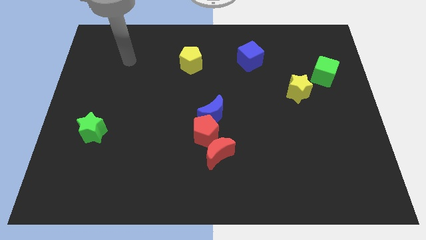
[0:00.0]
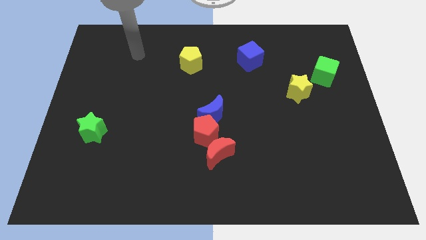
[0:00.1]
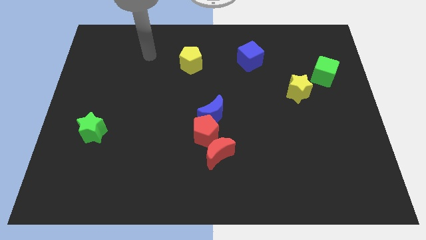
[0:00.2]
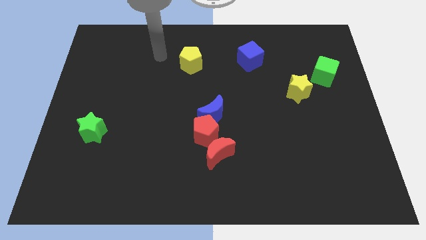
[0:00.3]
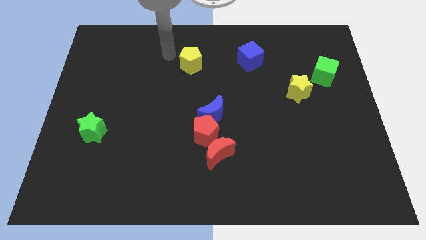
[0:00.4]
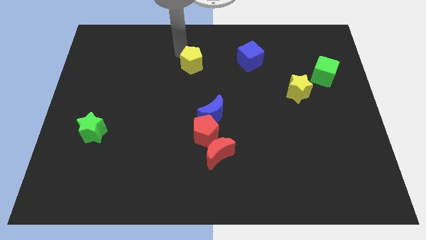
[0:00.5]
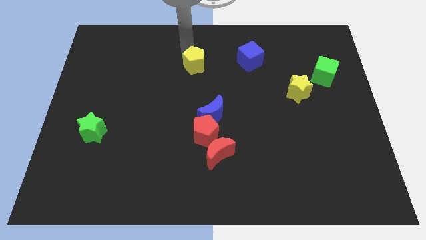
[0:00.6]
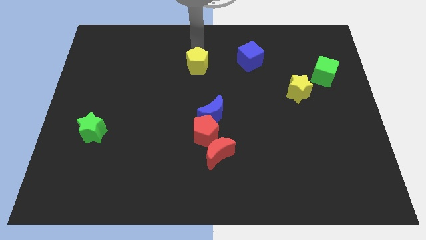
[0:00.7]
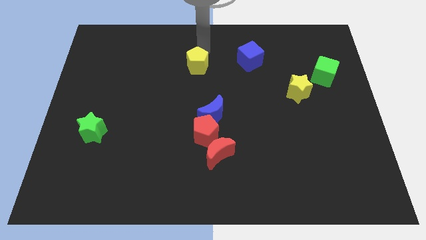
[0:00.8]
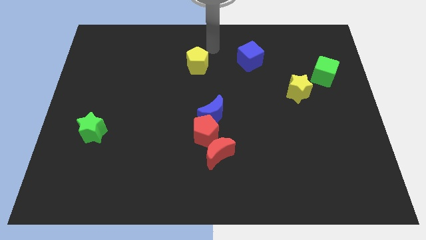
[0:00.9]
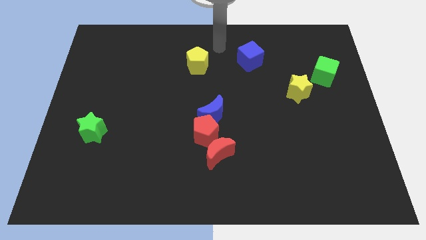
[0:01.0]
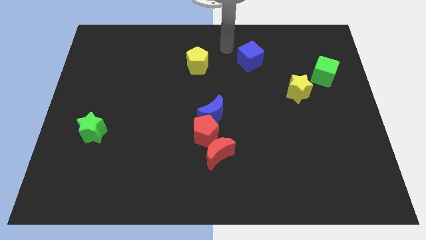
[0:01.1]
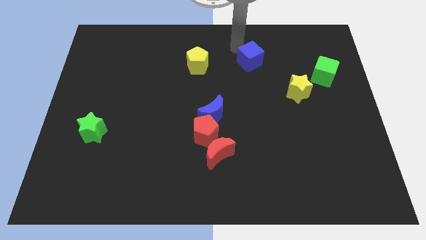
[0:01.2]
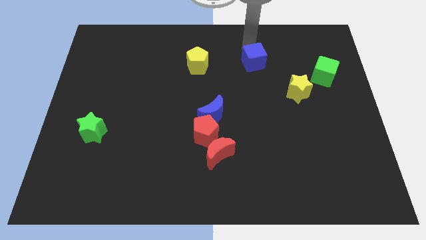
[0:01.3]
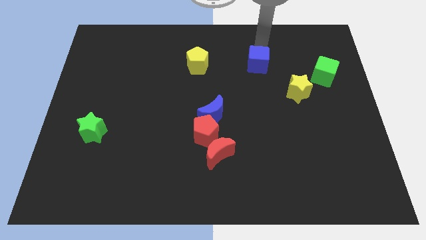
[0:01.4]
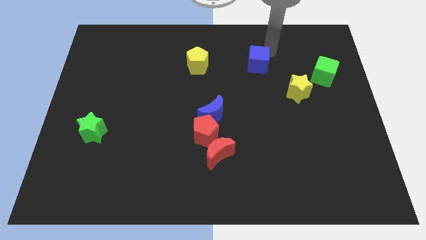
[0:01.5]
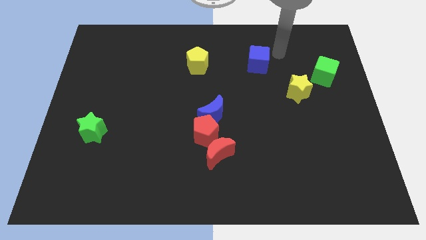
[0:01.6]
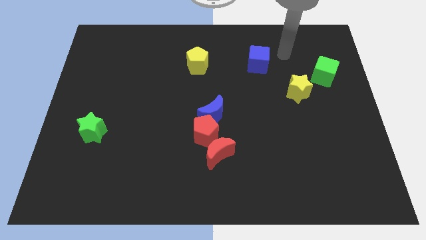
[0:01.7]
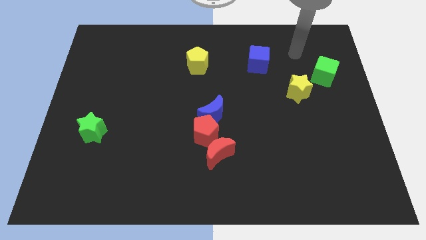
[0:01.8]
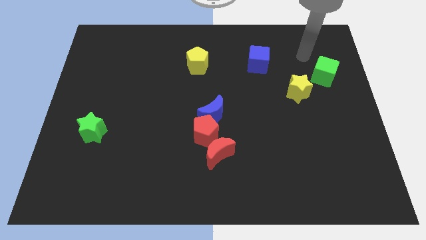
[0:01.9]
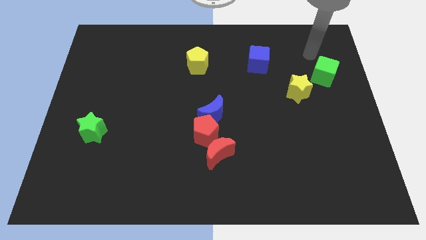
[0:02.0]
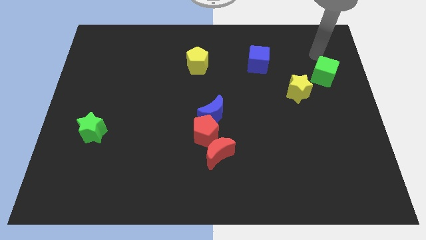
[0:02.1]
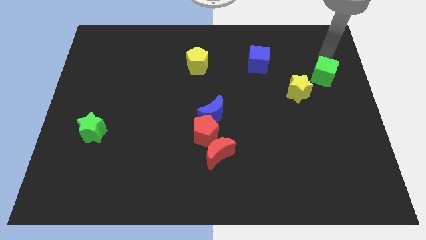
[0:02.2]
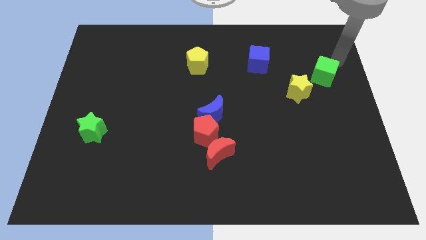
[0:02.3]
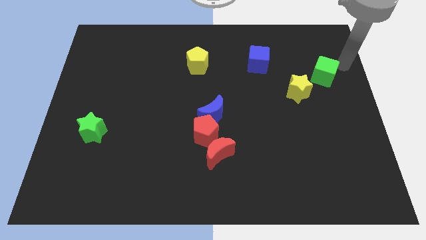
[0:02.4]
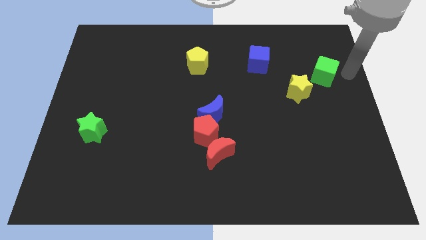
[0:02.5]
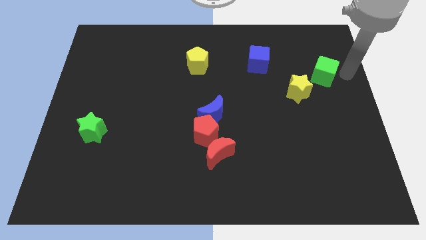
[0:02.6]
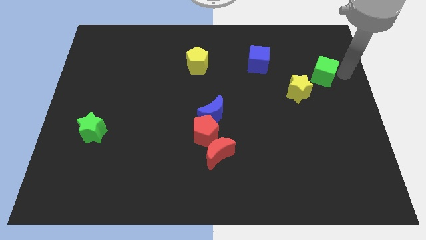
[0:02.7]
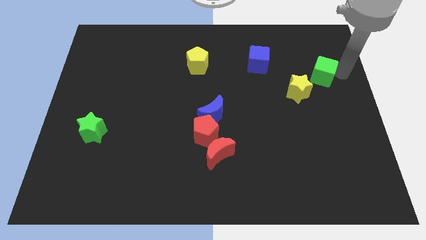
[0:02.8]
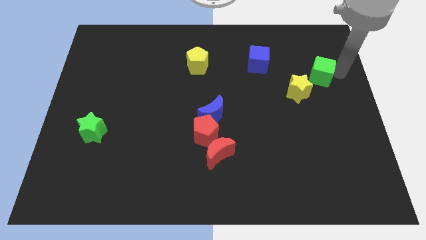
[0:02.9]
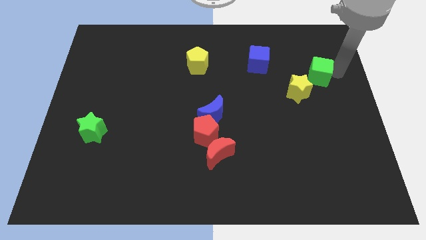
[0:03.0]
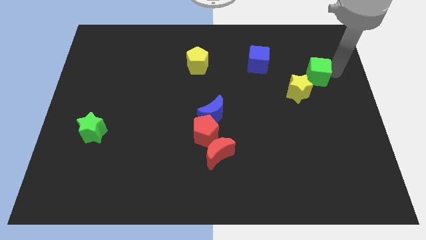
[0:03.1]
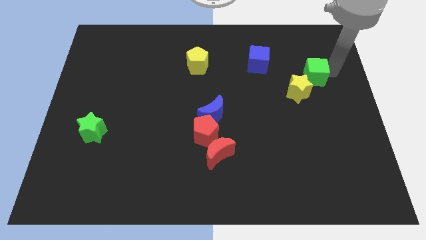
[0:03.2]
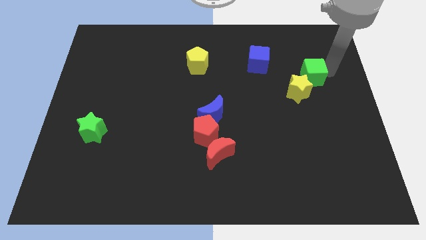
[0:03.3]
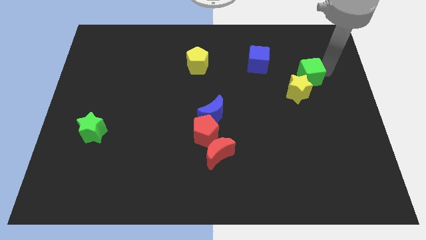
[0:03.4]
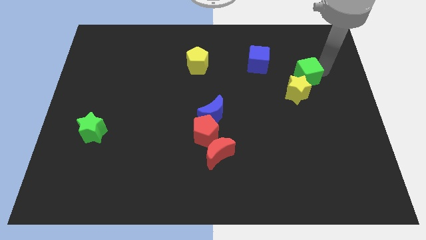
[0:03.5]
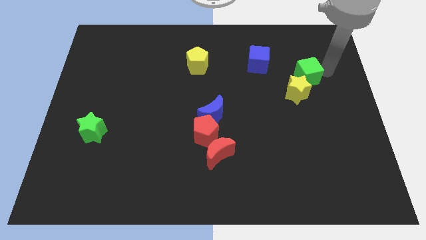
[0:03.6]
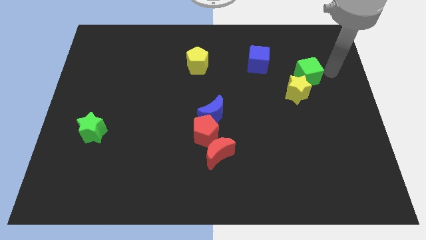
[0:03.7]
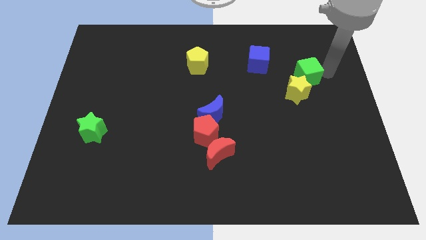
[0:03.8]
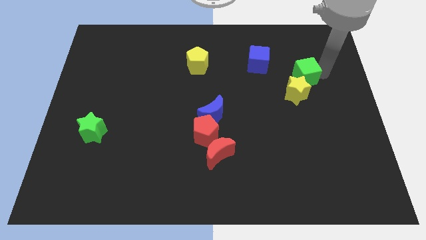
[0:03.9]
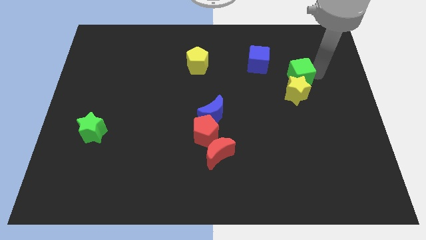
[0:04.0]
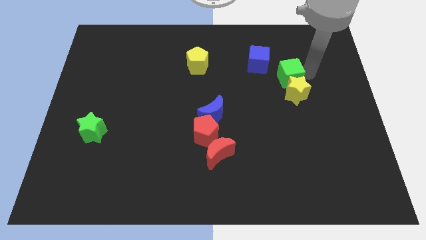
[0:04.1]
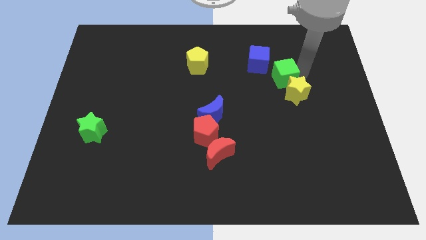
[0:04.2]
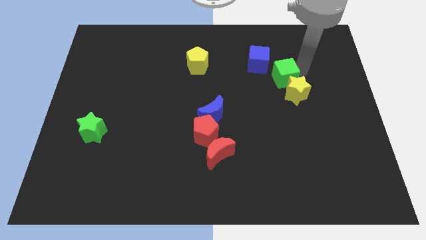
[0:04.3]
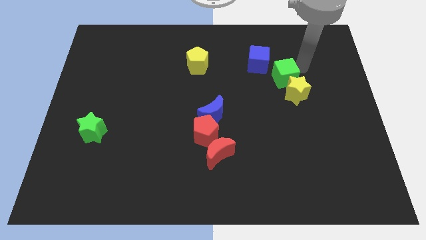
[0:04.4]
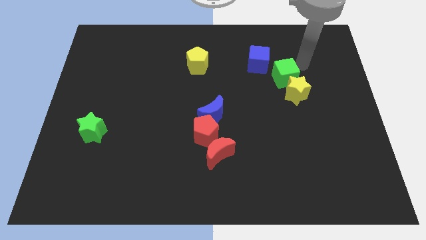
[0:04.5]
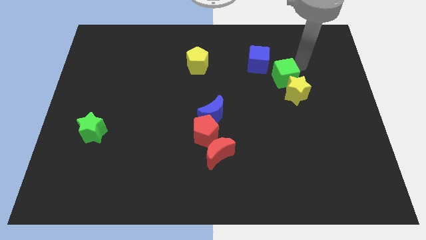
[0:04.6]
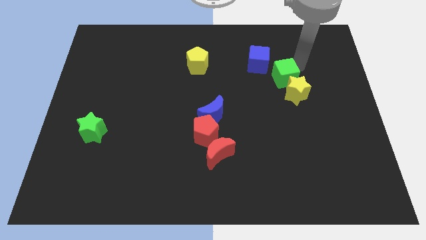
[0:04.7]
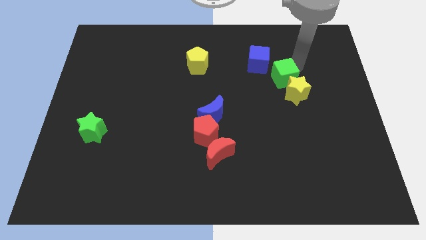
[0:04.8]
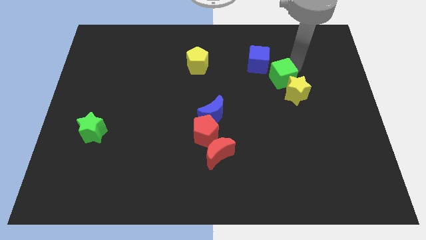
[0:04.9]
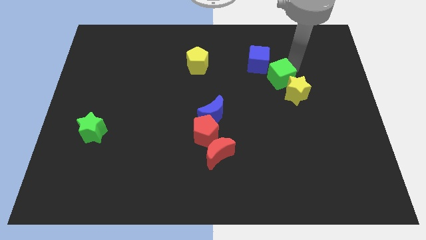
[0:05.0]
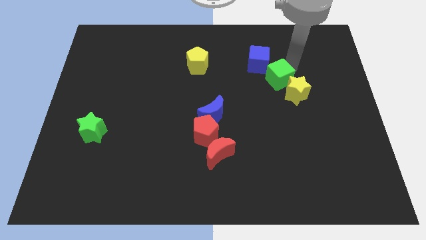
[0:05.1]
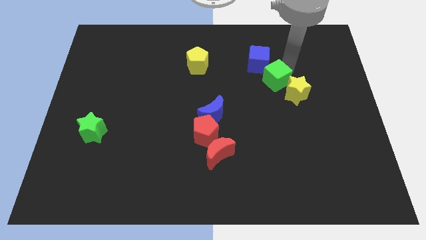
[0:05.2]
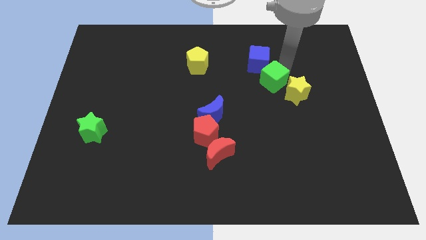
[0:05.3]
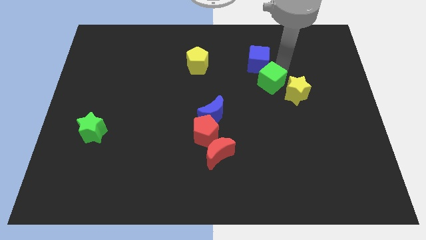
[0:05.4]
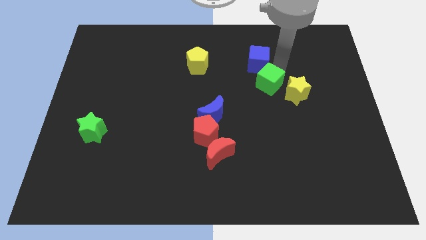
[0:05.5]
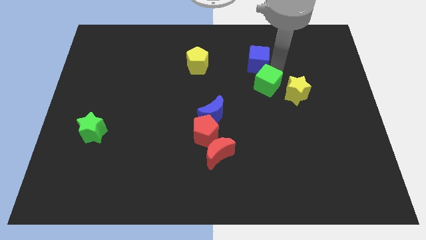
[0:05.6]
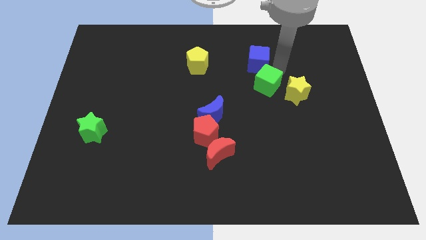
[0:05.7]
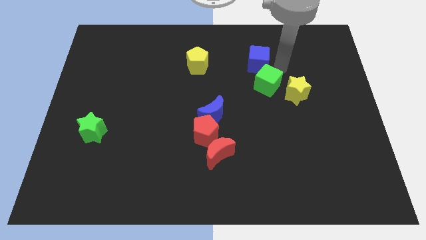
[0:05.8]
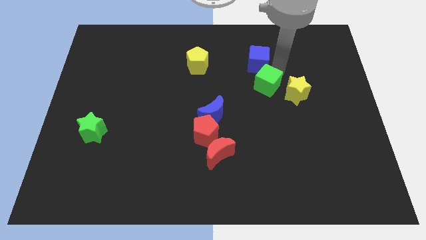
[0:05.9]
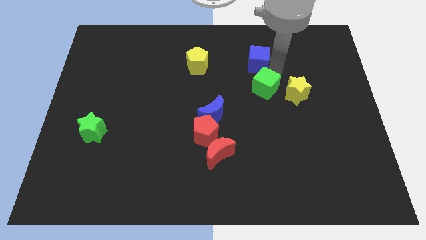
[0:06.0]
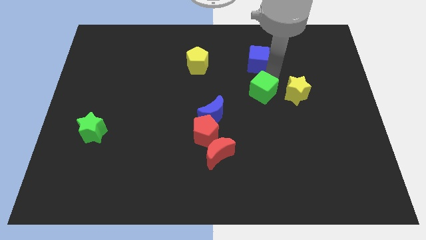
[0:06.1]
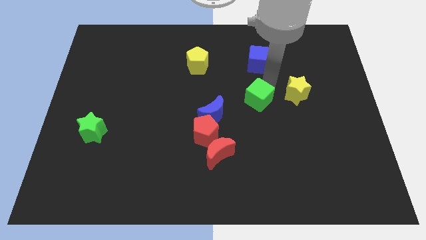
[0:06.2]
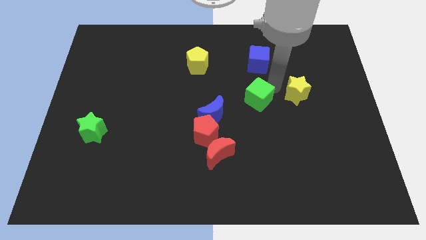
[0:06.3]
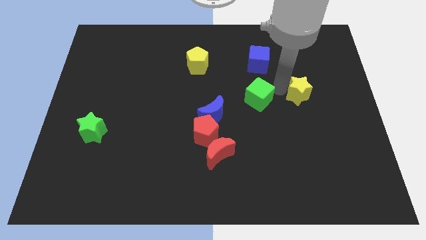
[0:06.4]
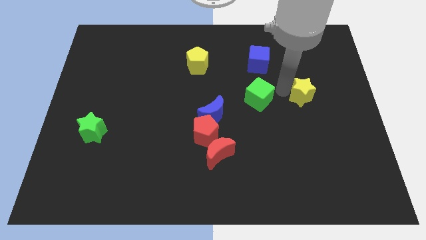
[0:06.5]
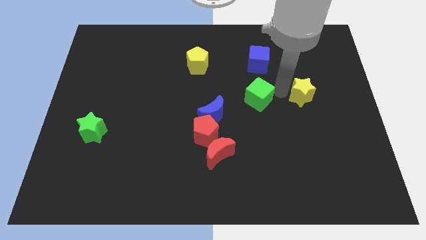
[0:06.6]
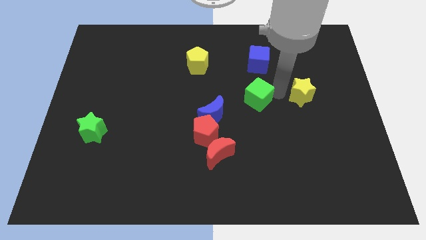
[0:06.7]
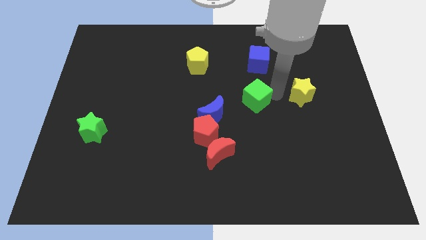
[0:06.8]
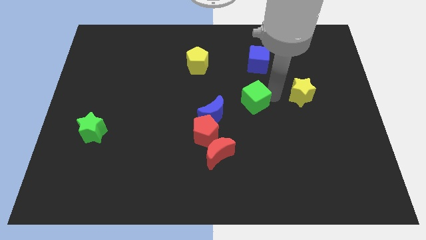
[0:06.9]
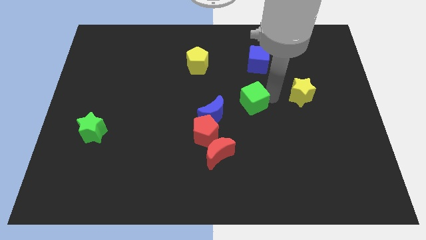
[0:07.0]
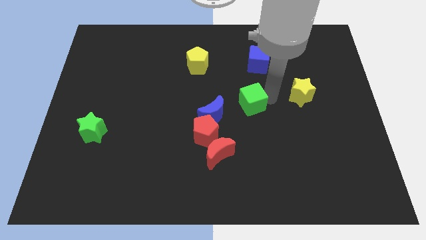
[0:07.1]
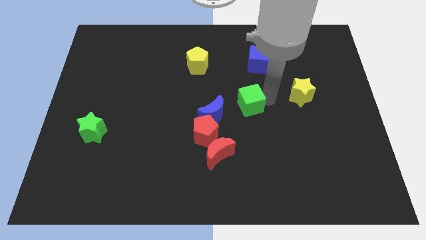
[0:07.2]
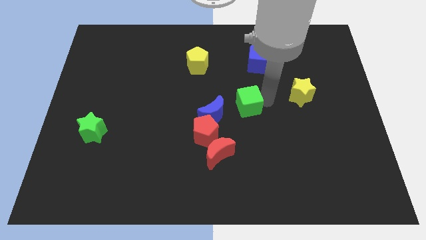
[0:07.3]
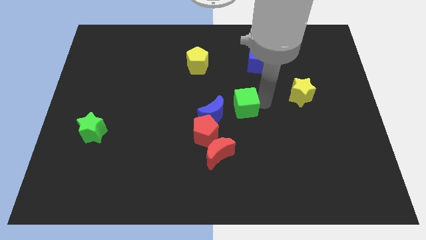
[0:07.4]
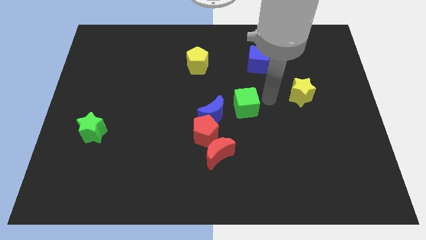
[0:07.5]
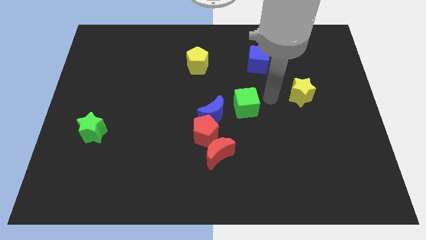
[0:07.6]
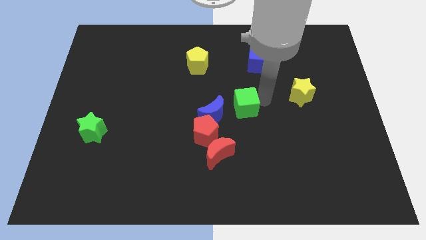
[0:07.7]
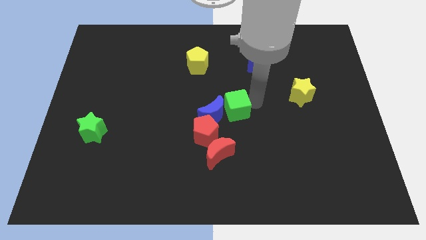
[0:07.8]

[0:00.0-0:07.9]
move the green cube next to the blue moon

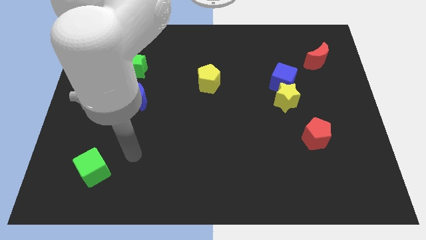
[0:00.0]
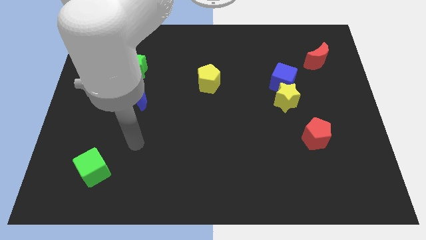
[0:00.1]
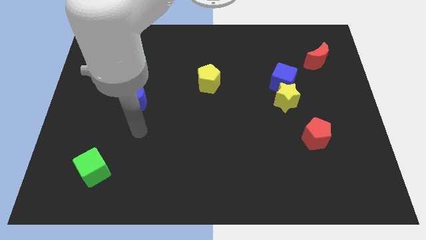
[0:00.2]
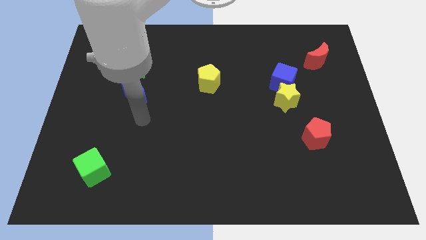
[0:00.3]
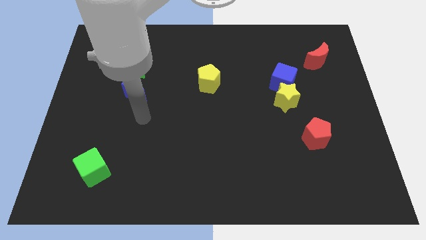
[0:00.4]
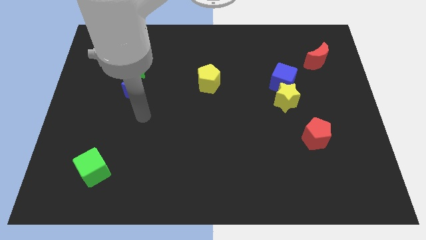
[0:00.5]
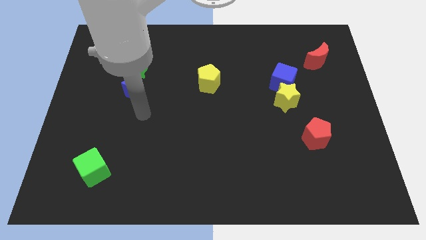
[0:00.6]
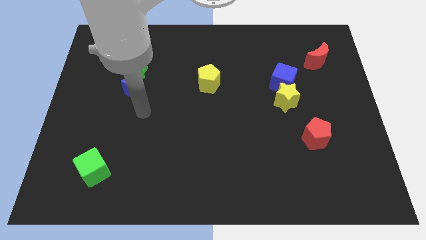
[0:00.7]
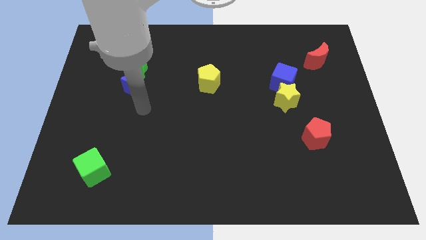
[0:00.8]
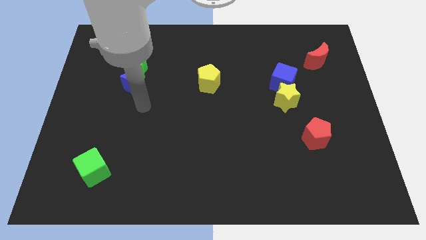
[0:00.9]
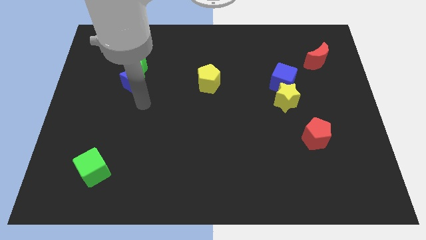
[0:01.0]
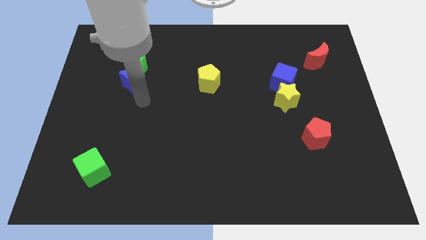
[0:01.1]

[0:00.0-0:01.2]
put the blue moon next to the green star
